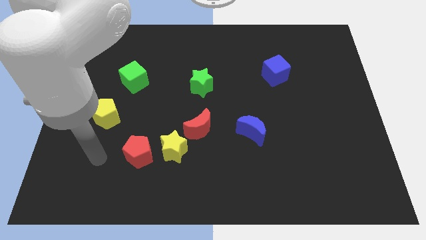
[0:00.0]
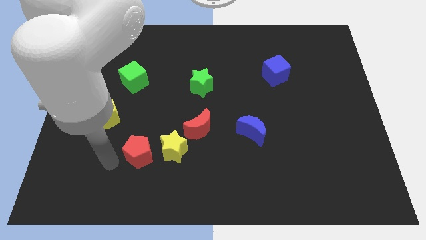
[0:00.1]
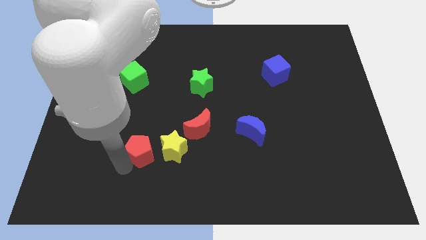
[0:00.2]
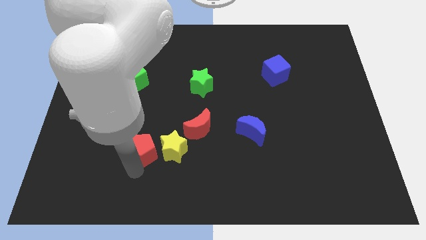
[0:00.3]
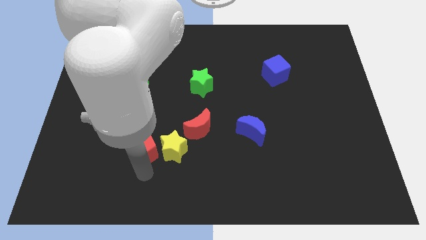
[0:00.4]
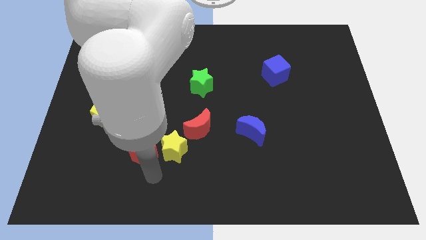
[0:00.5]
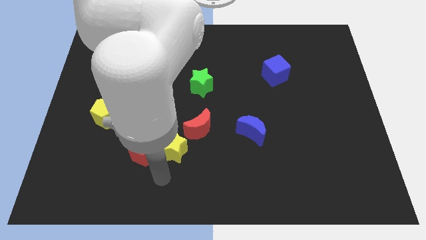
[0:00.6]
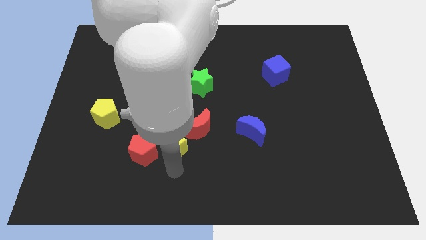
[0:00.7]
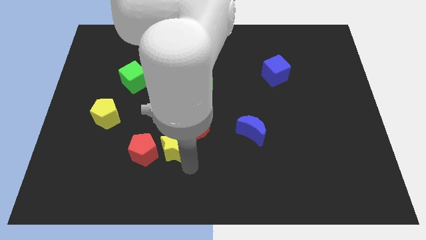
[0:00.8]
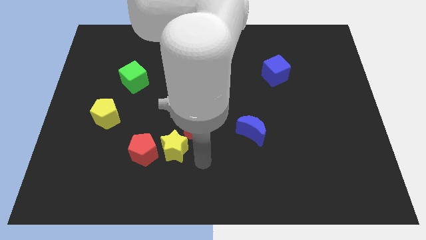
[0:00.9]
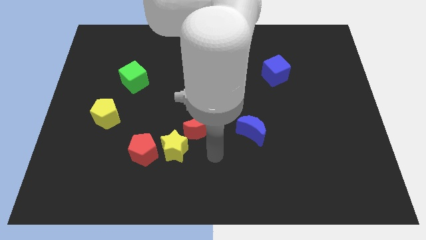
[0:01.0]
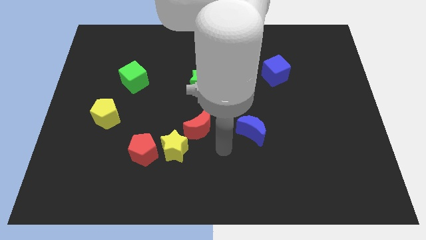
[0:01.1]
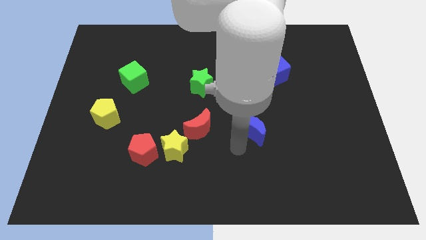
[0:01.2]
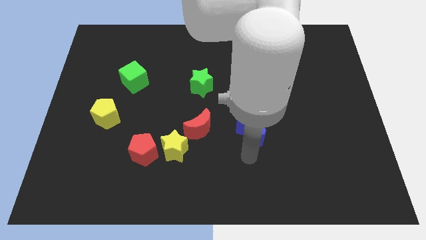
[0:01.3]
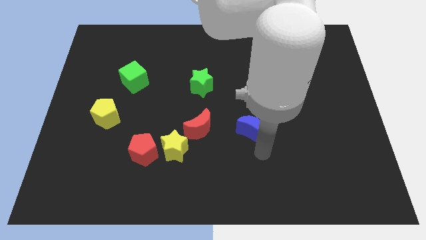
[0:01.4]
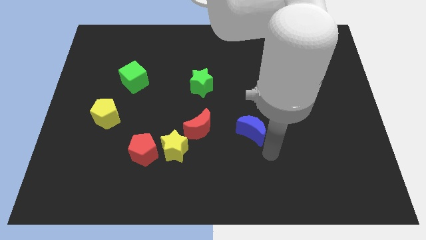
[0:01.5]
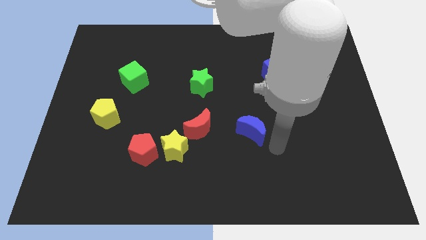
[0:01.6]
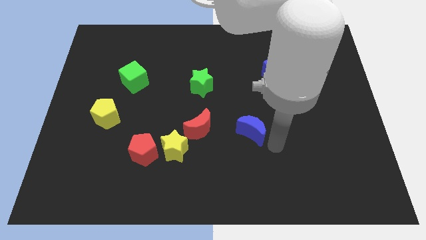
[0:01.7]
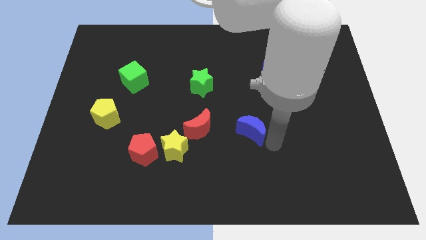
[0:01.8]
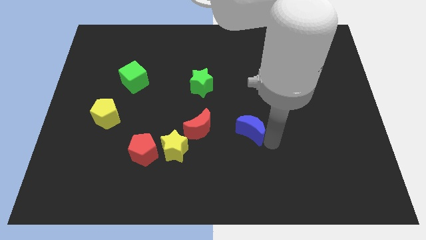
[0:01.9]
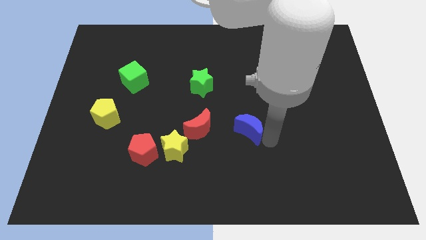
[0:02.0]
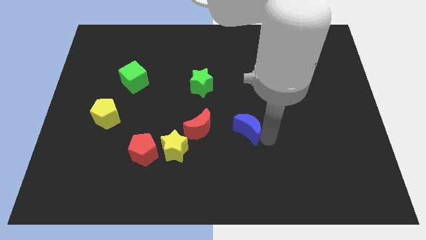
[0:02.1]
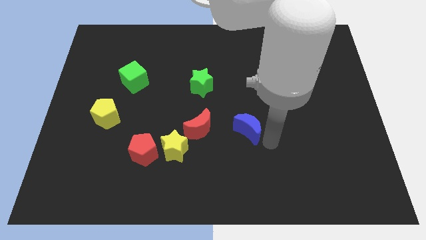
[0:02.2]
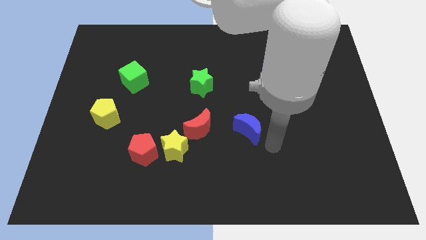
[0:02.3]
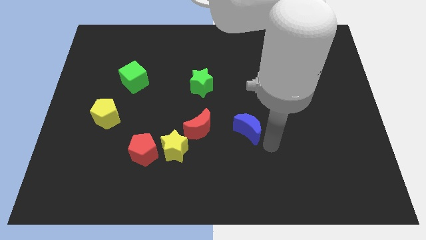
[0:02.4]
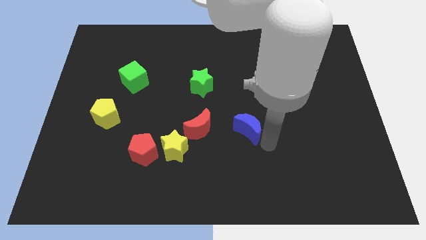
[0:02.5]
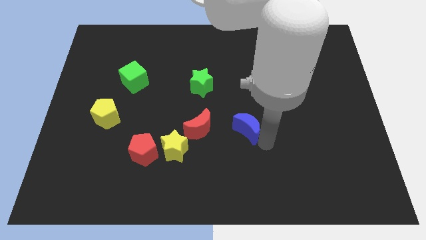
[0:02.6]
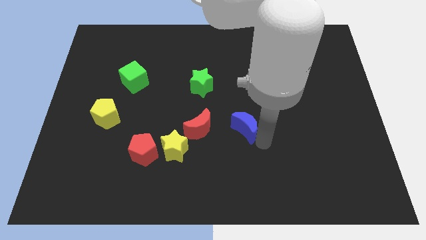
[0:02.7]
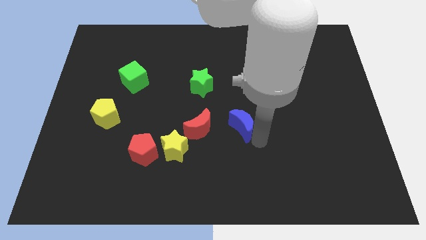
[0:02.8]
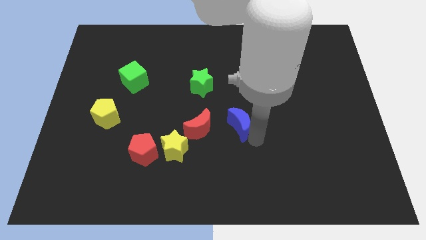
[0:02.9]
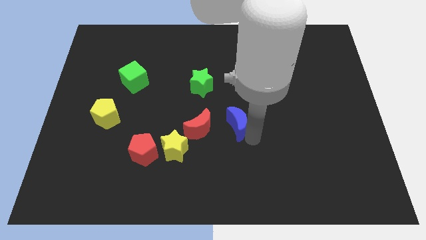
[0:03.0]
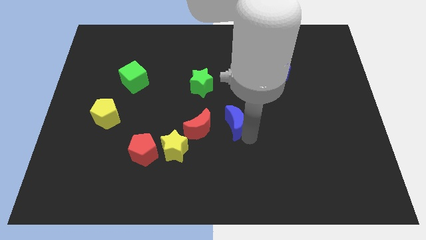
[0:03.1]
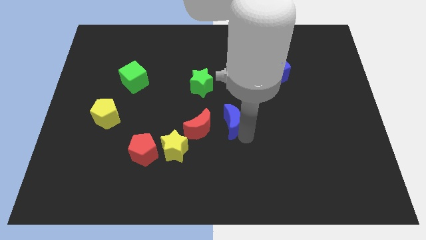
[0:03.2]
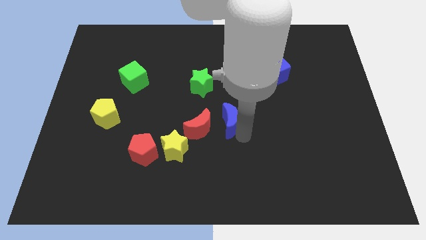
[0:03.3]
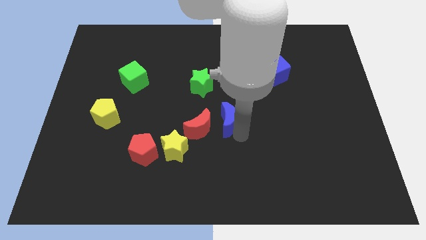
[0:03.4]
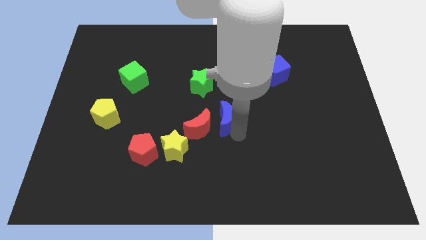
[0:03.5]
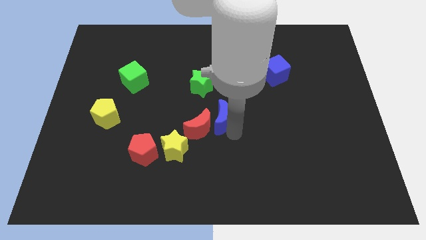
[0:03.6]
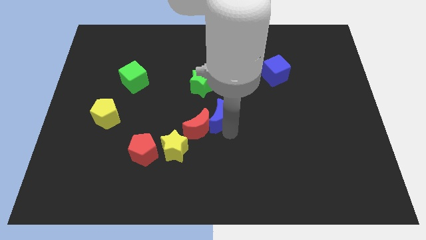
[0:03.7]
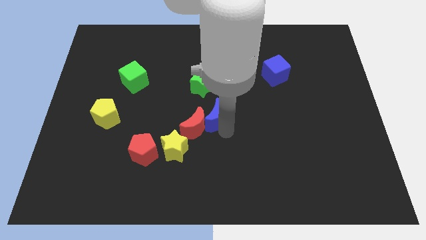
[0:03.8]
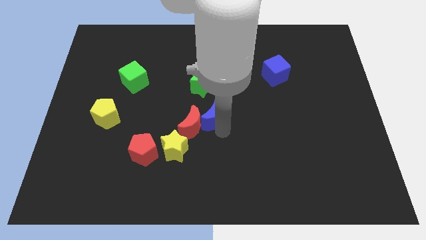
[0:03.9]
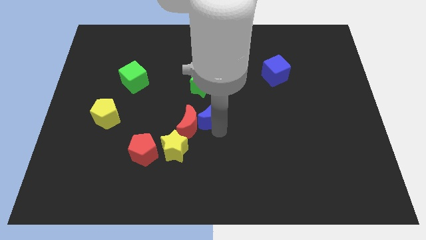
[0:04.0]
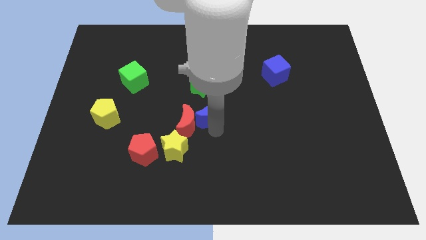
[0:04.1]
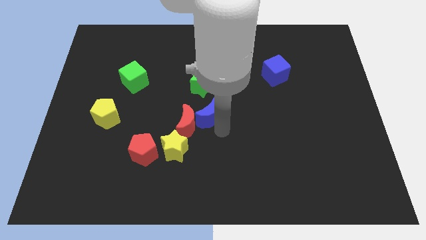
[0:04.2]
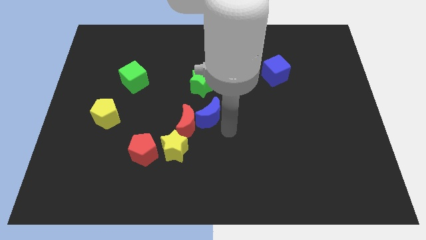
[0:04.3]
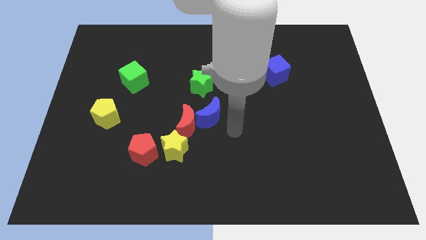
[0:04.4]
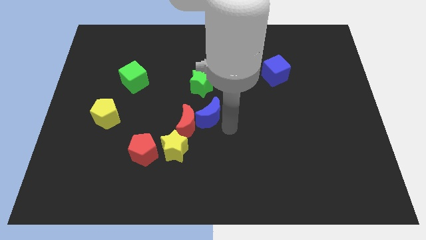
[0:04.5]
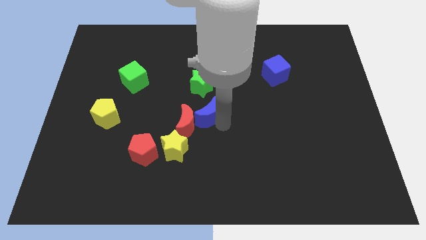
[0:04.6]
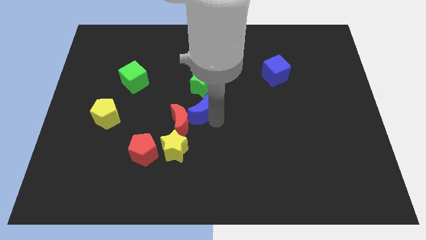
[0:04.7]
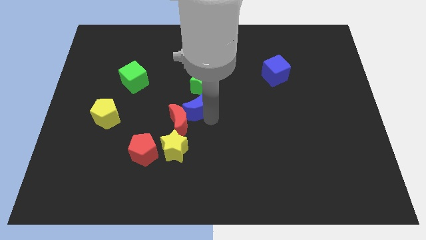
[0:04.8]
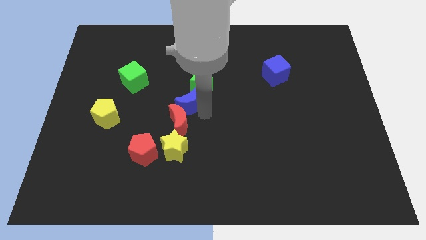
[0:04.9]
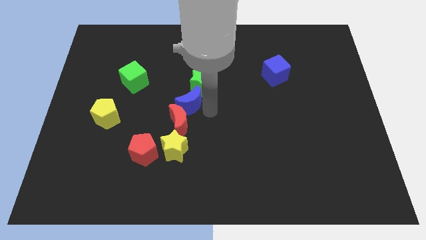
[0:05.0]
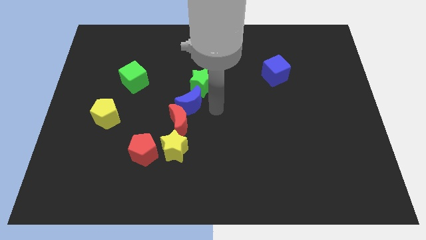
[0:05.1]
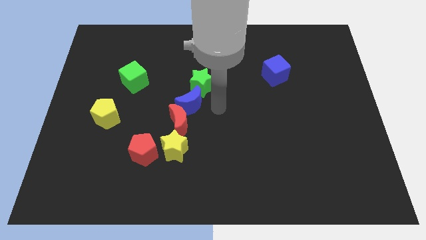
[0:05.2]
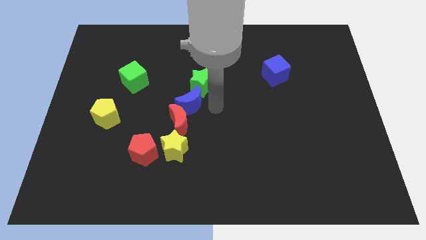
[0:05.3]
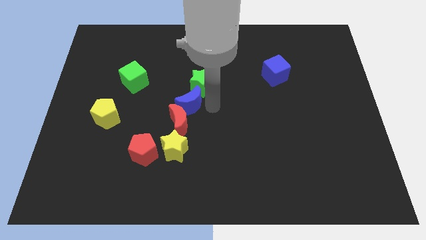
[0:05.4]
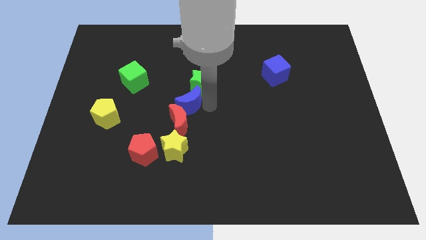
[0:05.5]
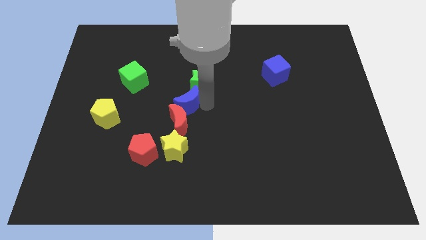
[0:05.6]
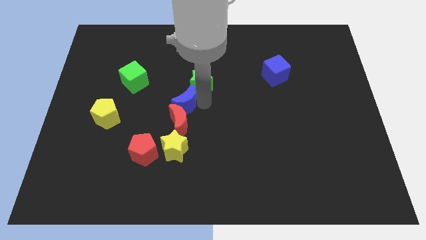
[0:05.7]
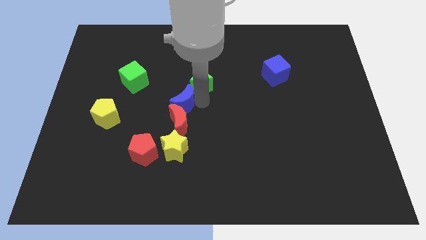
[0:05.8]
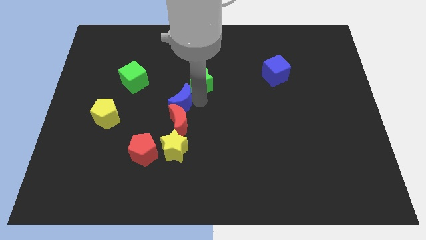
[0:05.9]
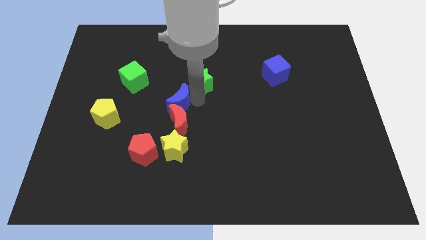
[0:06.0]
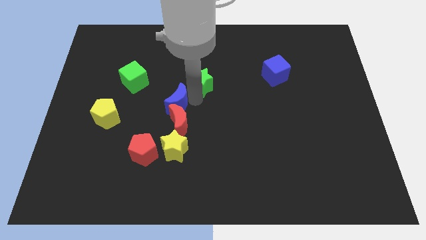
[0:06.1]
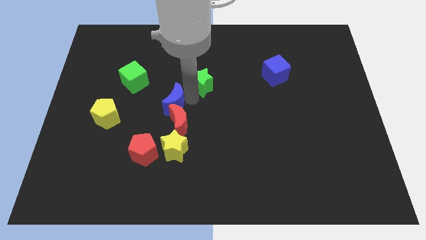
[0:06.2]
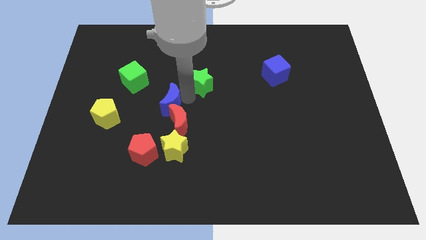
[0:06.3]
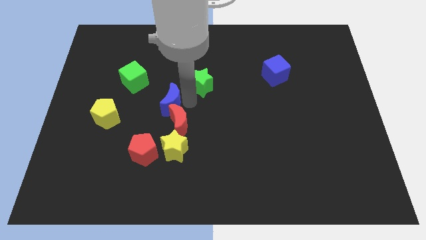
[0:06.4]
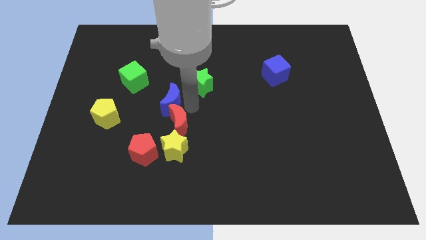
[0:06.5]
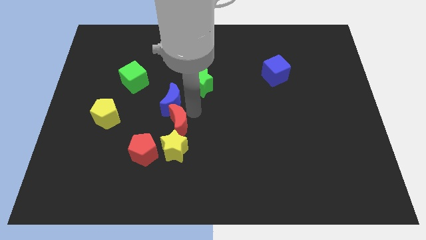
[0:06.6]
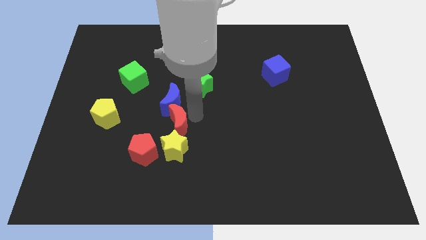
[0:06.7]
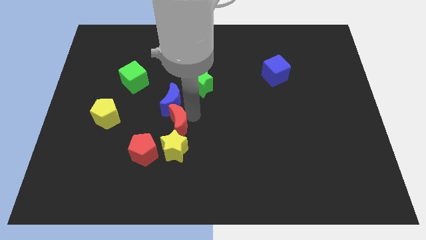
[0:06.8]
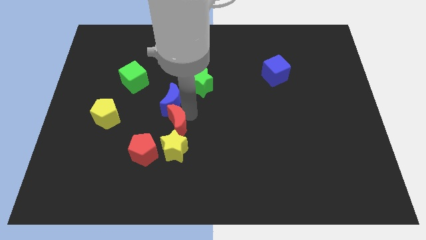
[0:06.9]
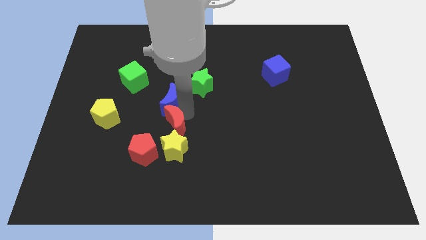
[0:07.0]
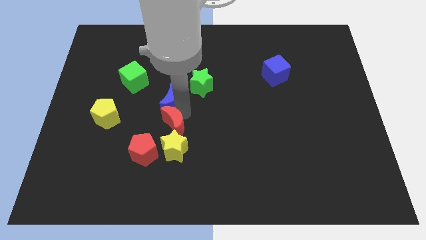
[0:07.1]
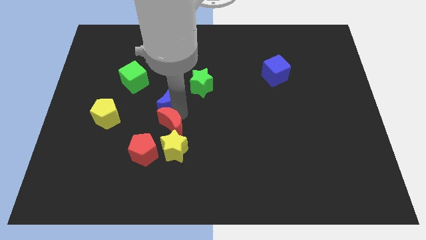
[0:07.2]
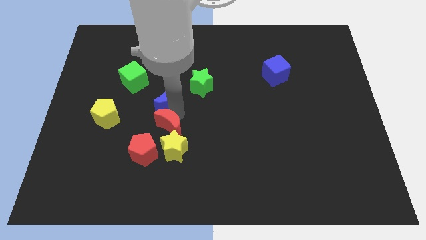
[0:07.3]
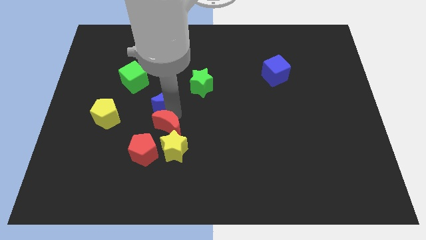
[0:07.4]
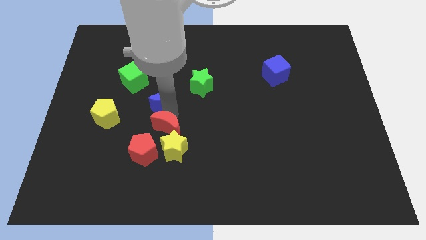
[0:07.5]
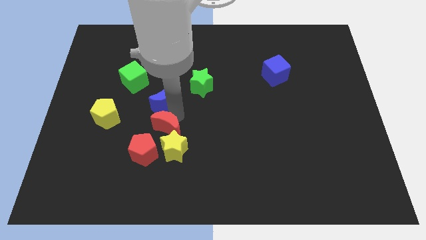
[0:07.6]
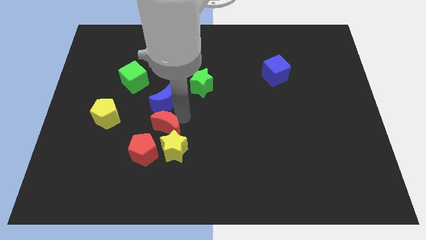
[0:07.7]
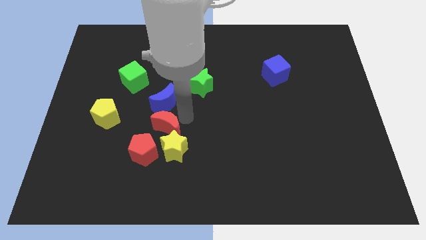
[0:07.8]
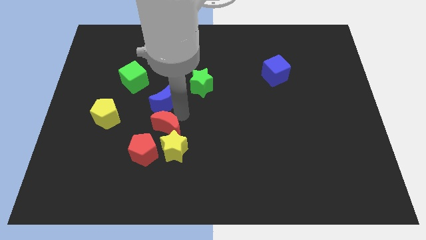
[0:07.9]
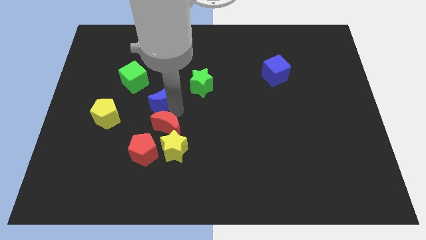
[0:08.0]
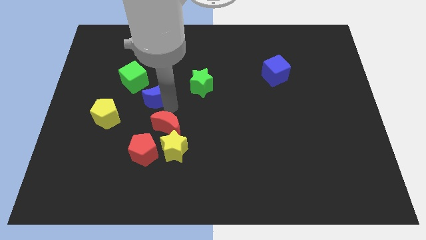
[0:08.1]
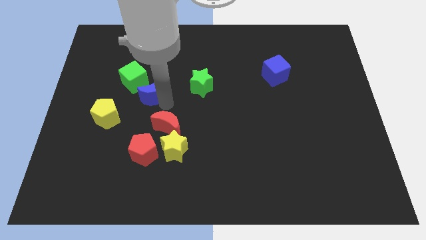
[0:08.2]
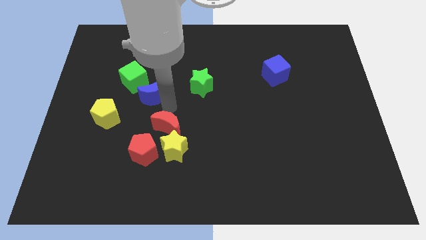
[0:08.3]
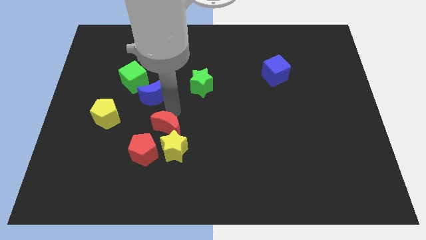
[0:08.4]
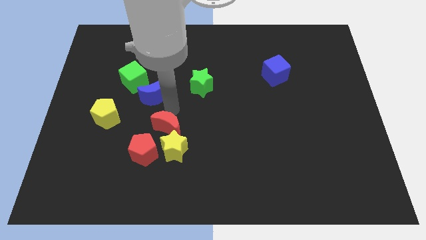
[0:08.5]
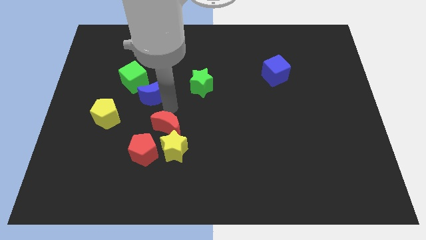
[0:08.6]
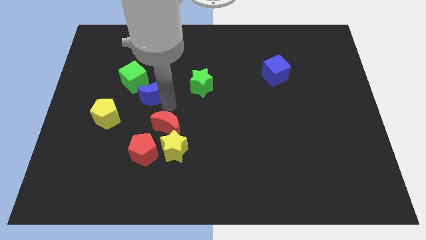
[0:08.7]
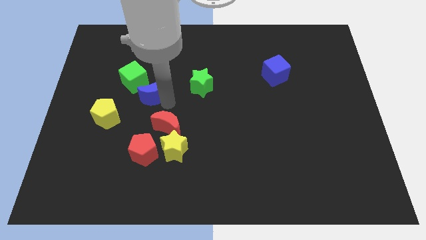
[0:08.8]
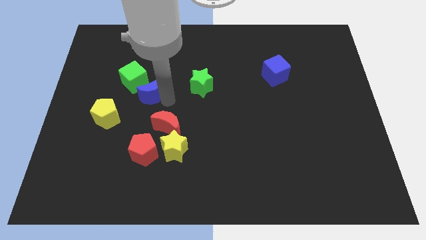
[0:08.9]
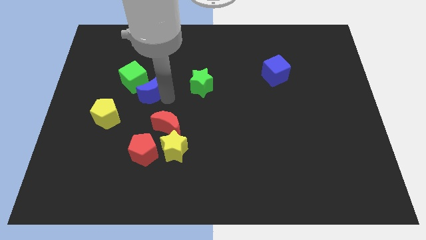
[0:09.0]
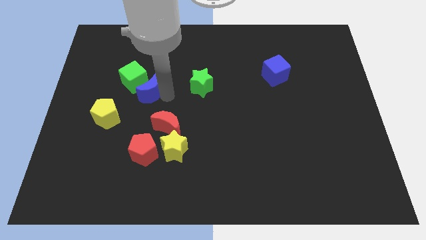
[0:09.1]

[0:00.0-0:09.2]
slide the blue moon to the green cube
